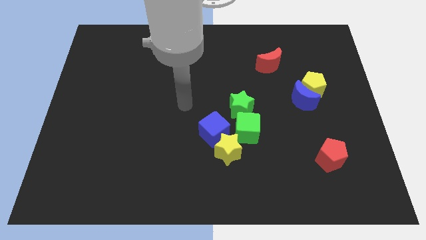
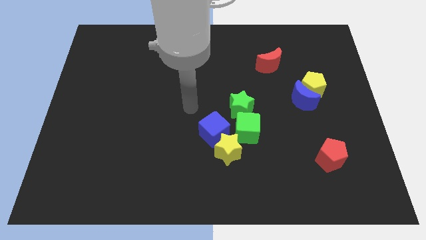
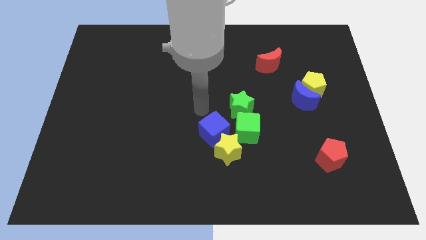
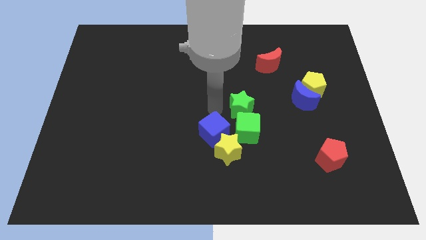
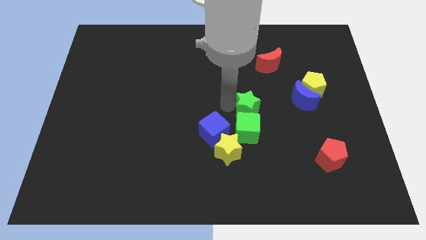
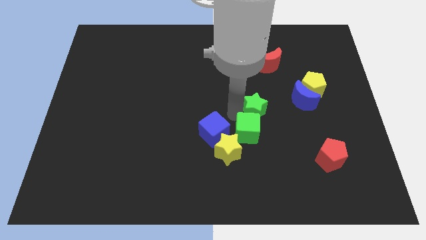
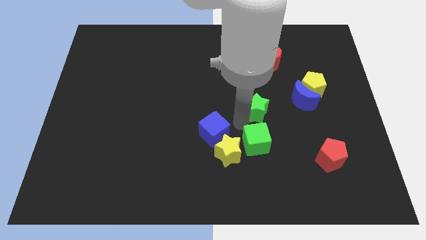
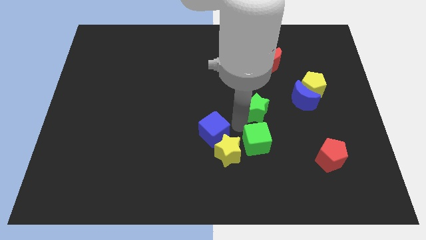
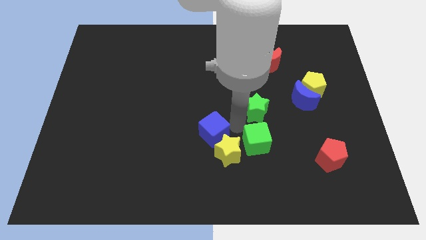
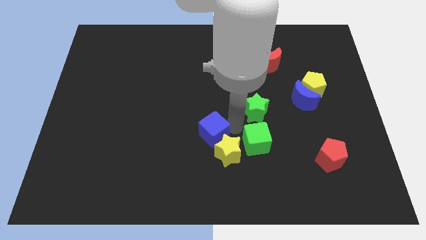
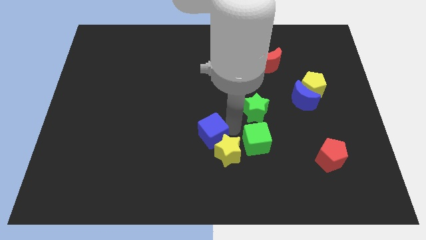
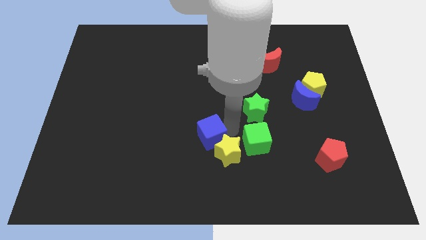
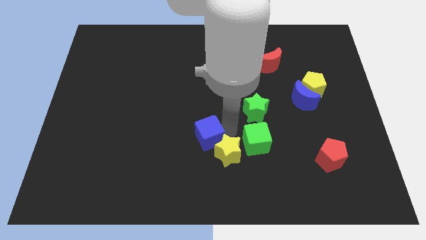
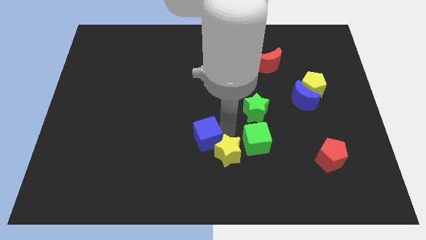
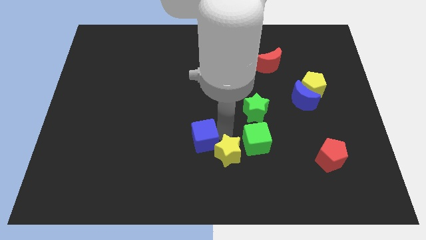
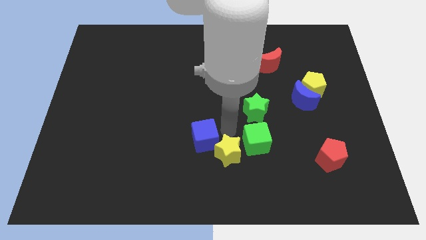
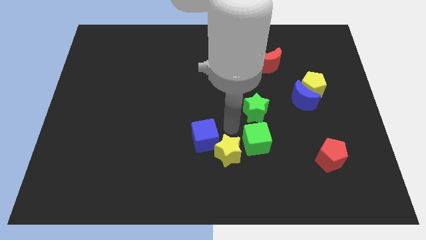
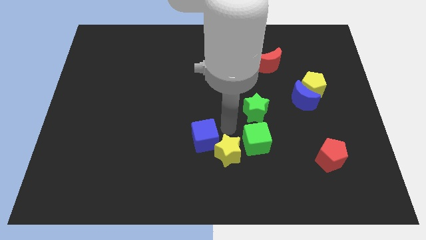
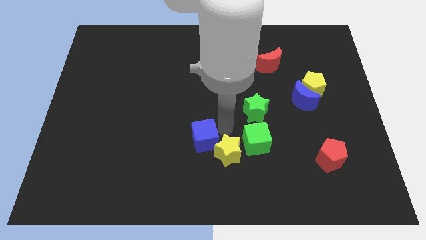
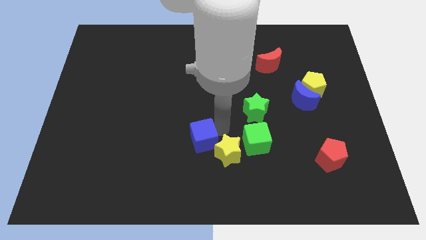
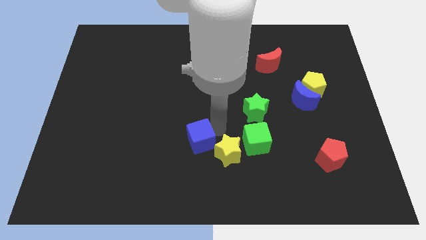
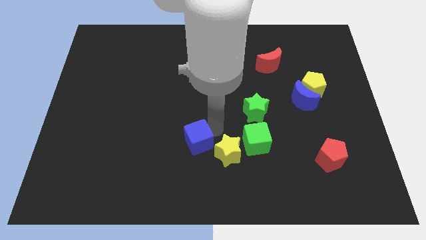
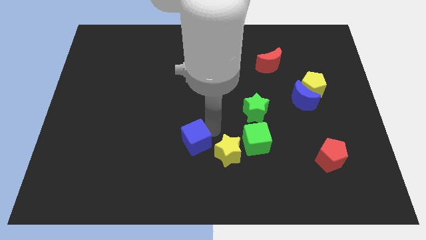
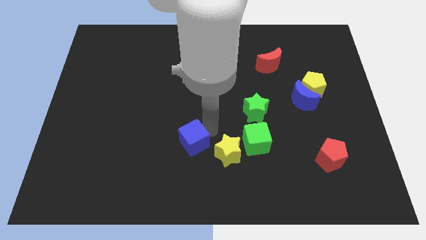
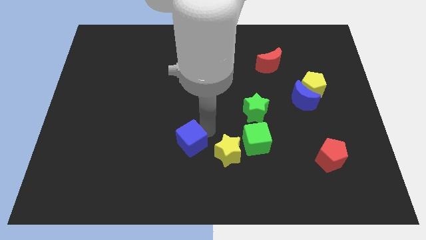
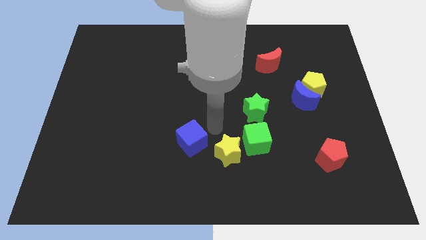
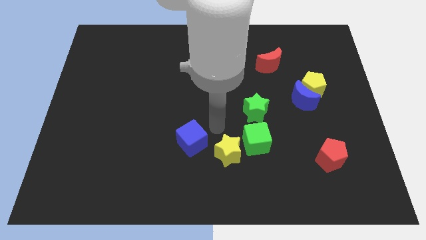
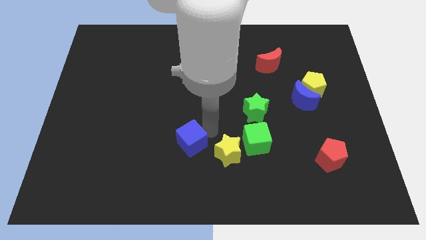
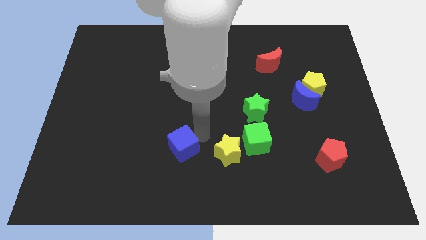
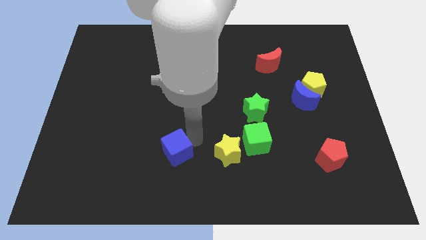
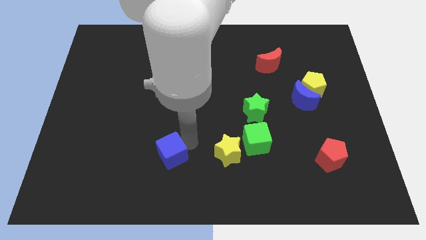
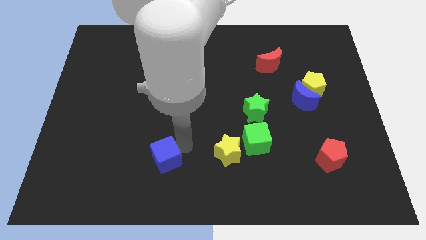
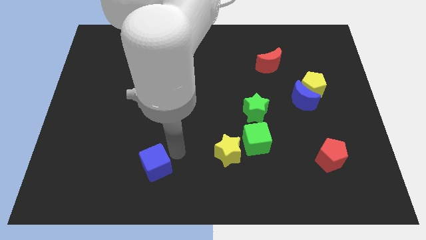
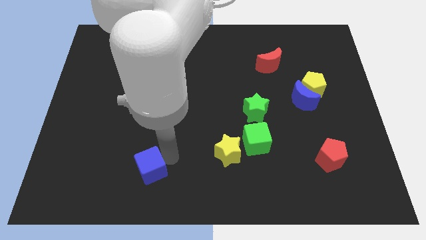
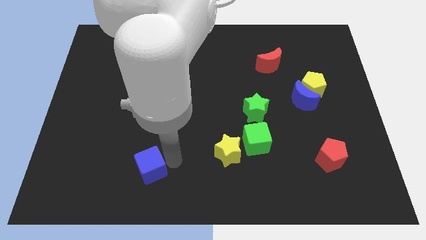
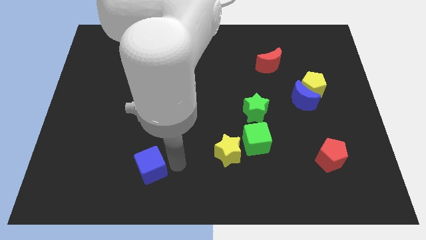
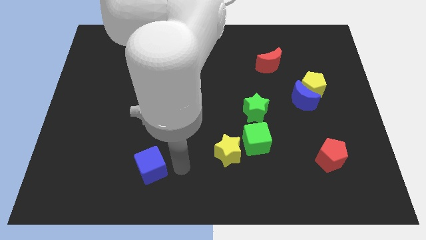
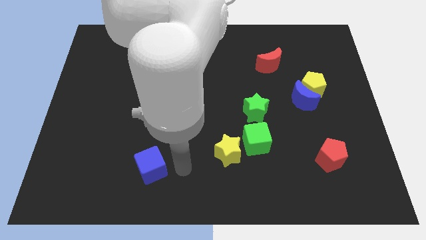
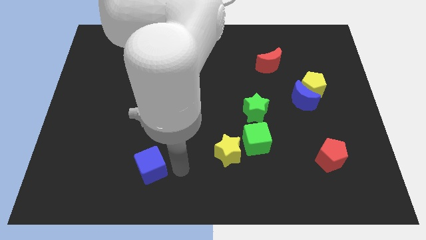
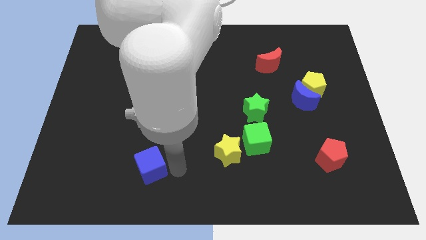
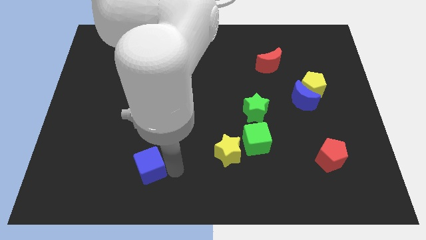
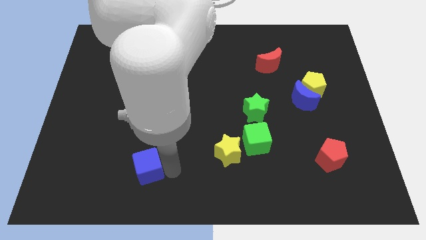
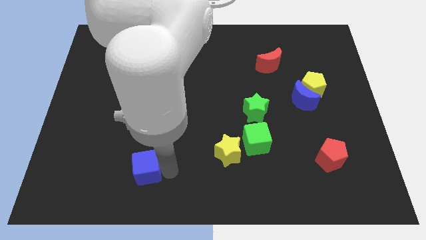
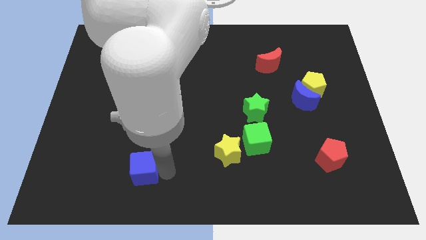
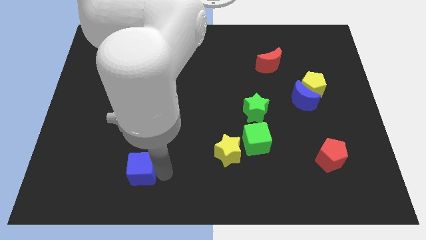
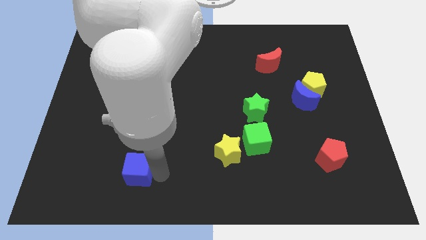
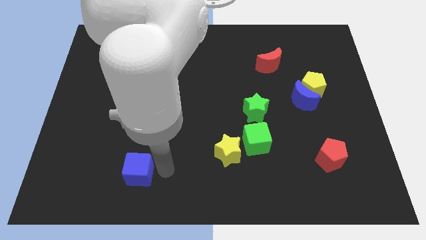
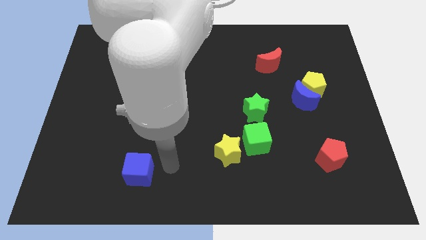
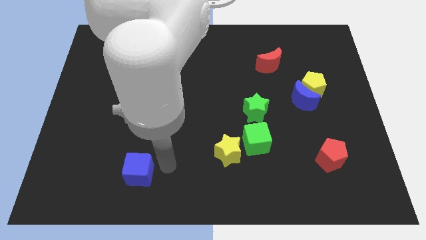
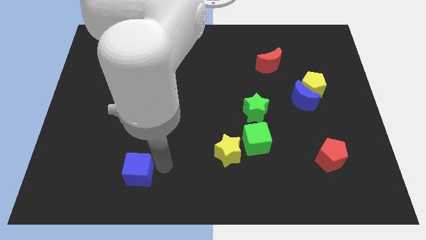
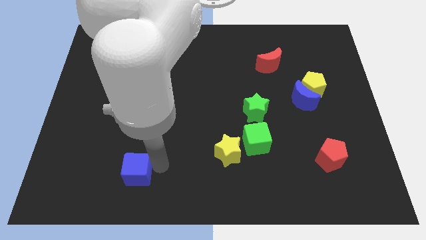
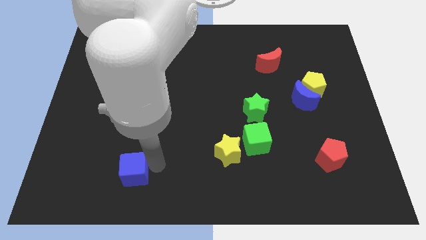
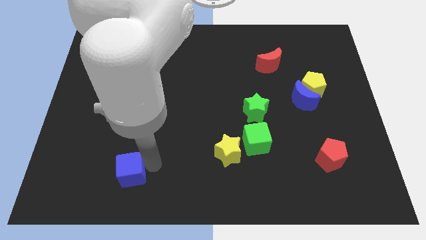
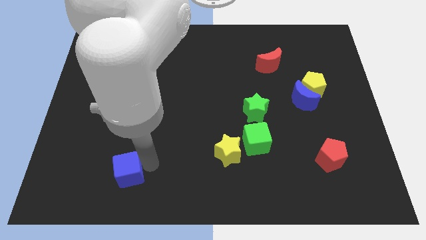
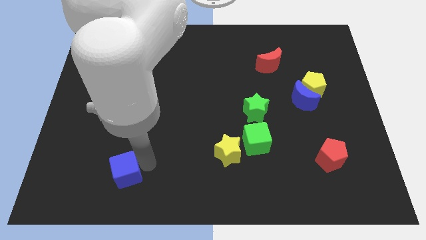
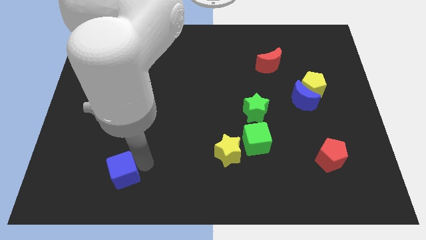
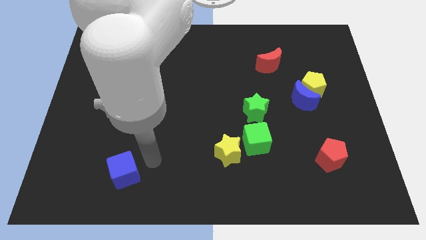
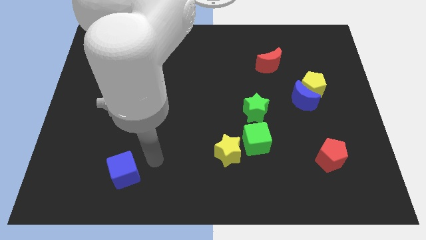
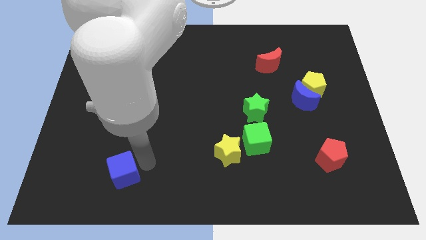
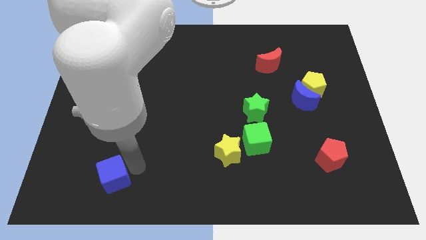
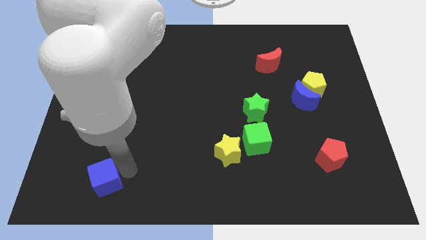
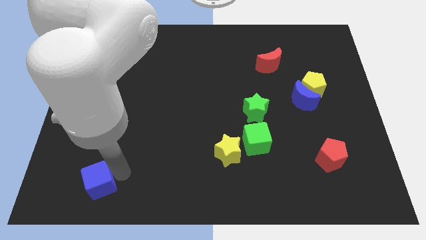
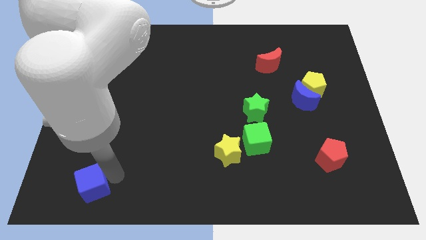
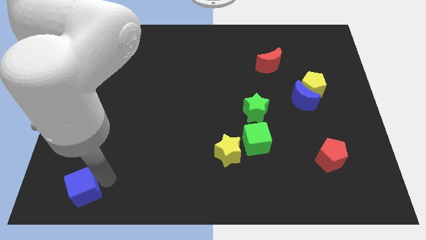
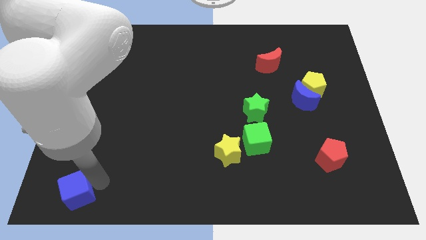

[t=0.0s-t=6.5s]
move the blue cube to the bottom left corner

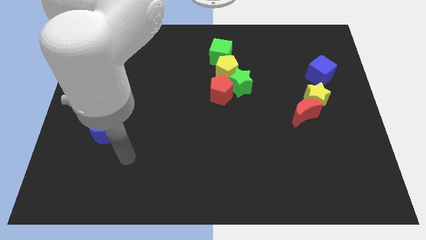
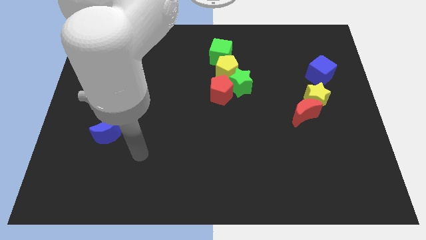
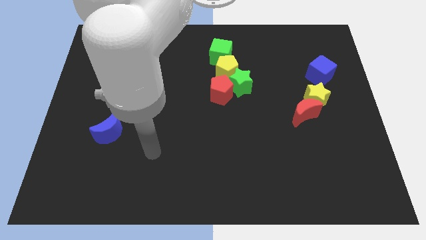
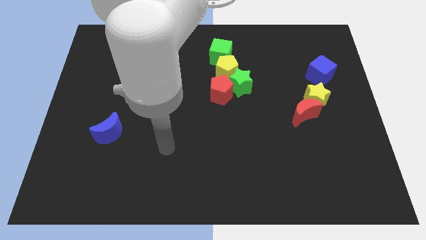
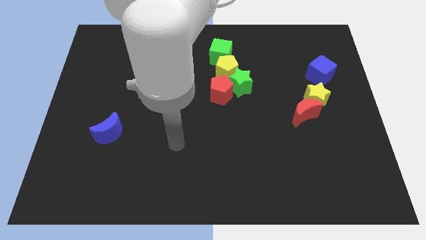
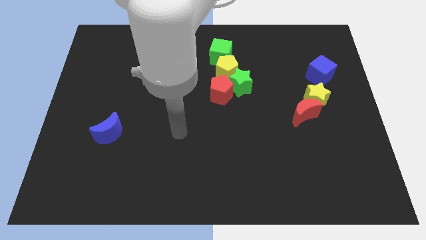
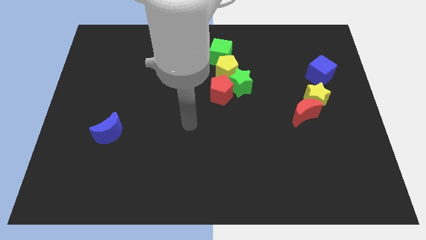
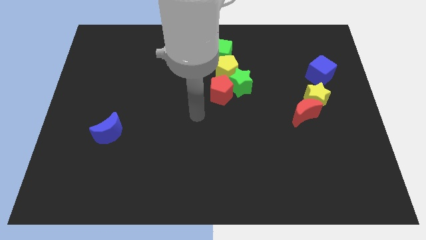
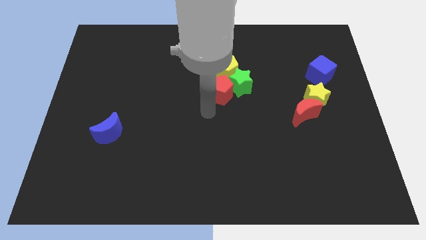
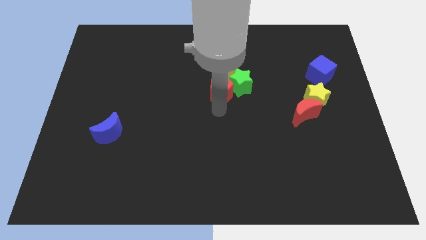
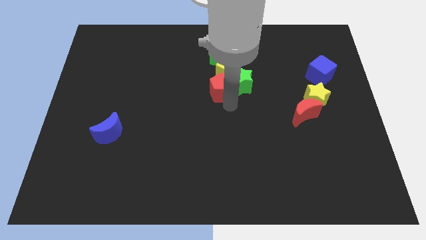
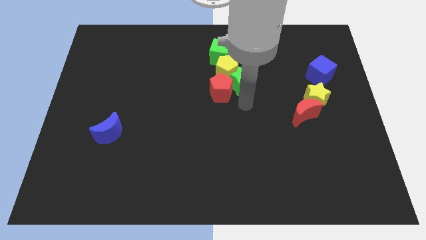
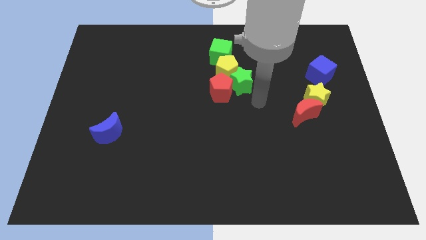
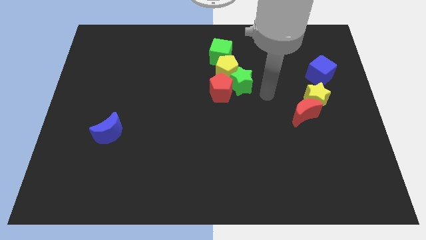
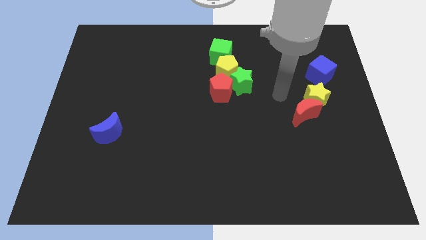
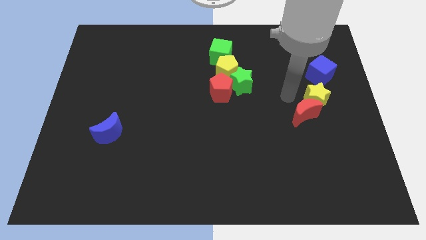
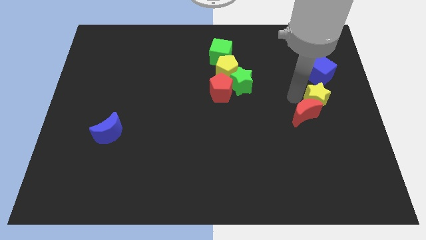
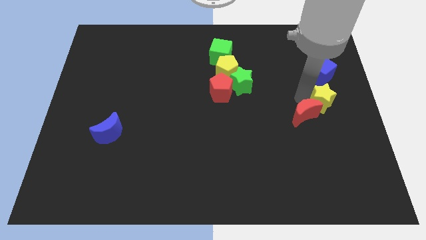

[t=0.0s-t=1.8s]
push the yellow star to the right side
